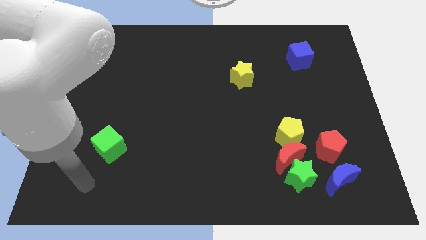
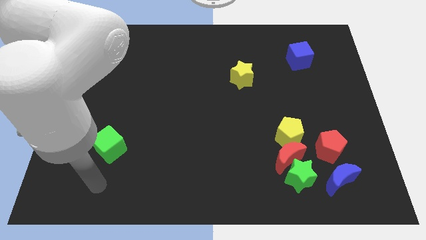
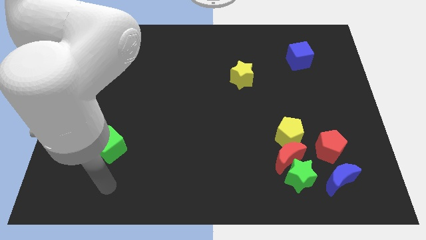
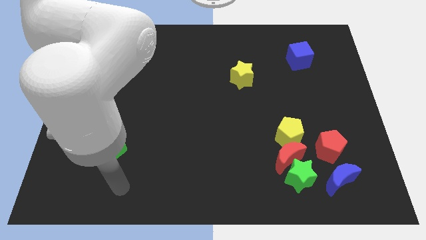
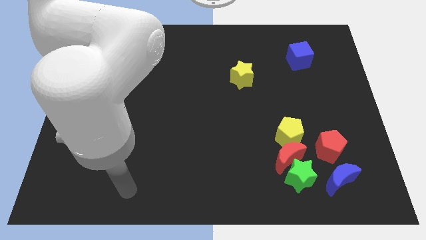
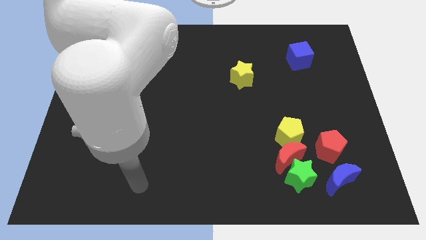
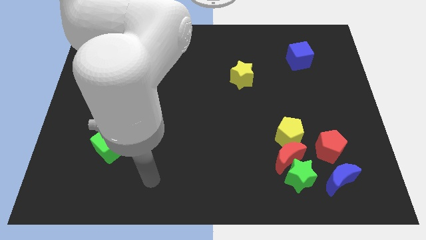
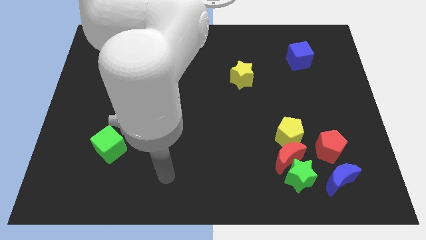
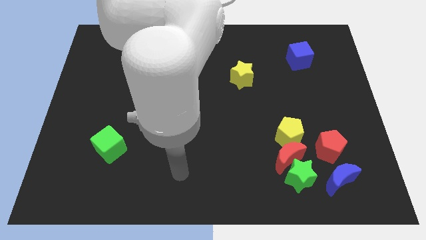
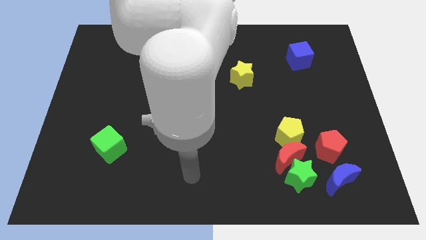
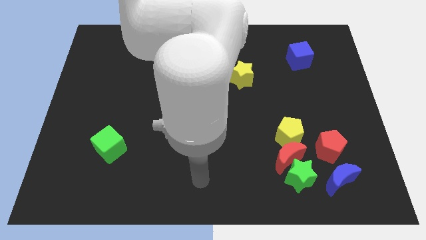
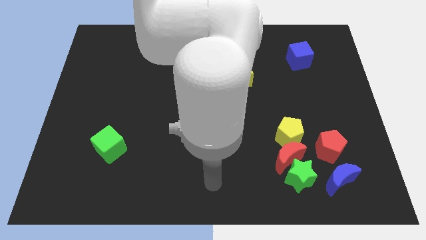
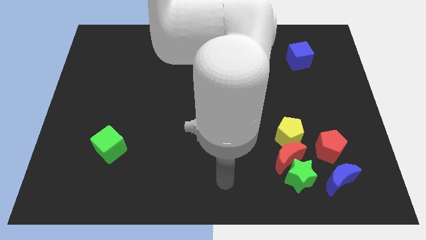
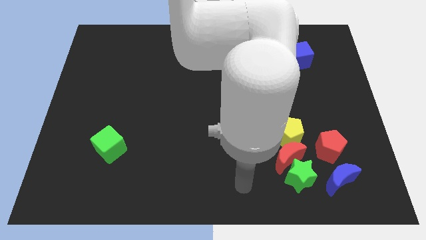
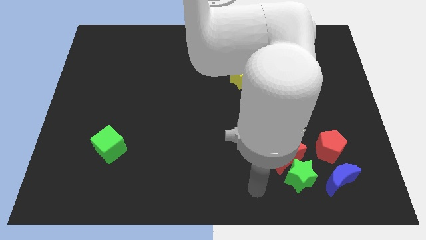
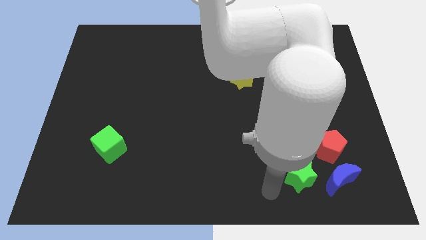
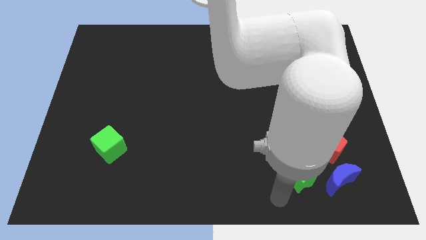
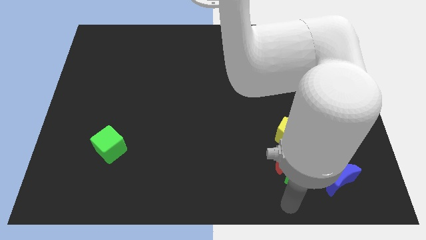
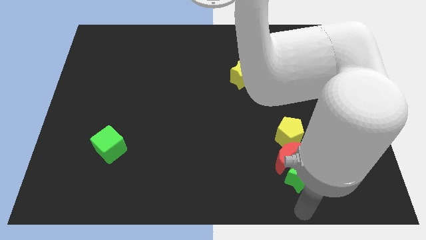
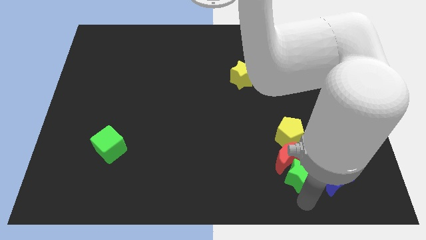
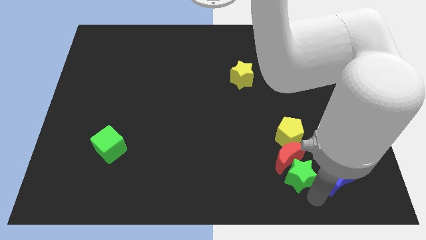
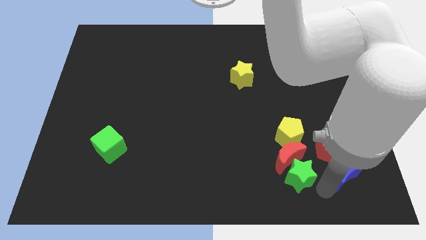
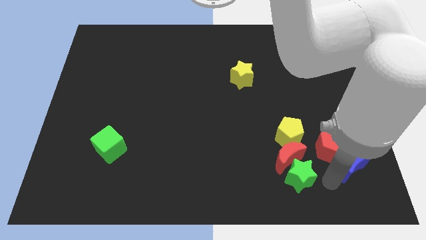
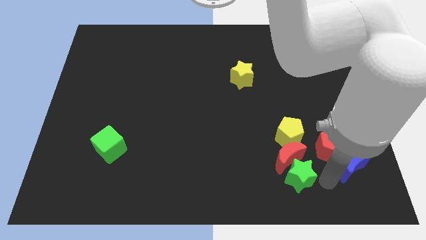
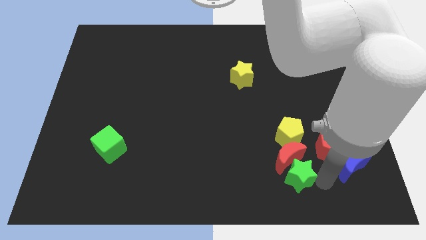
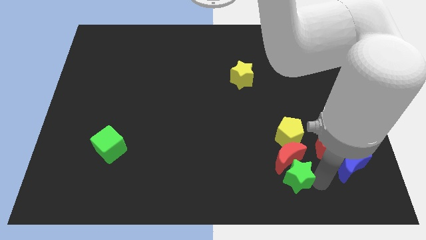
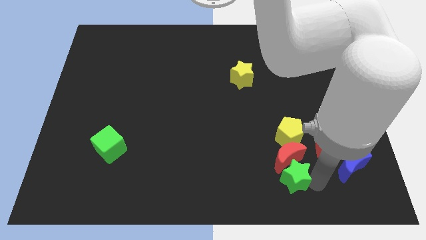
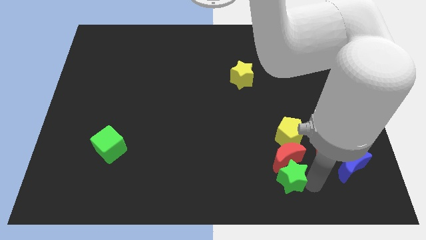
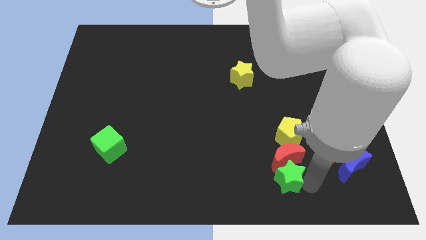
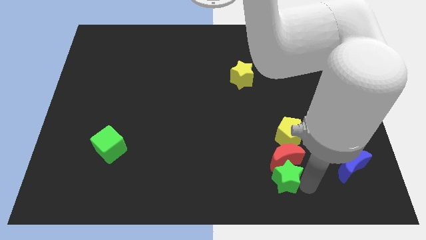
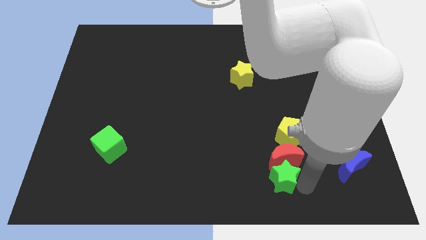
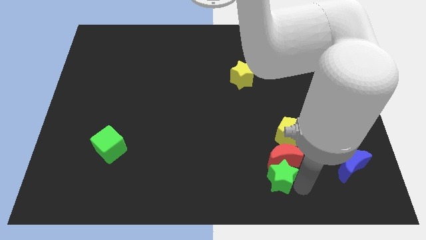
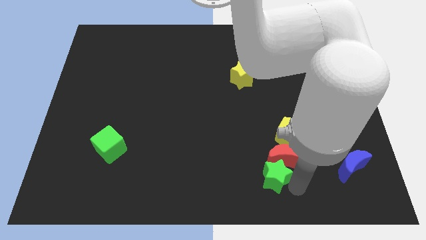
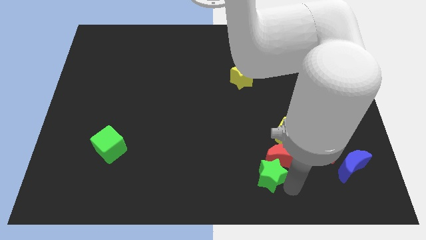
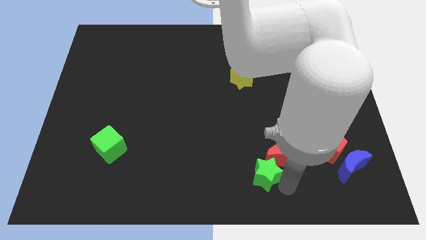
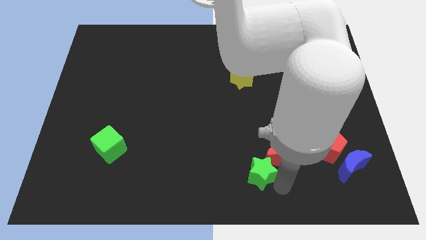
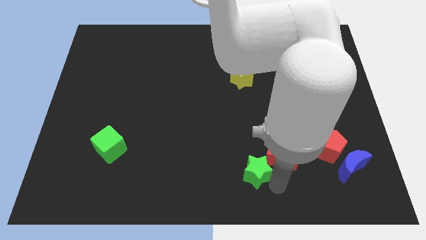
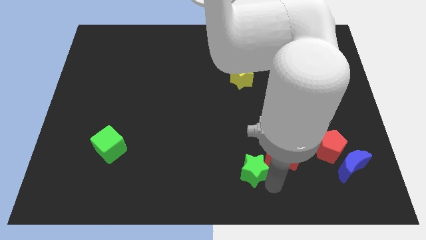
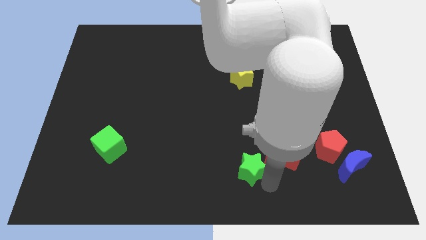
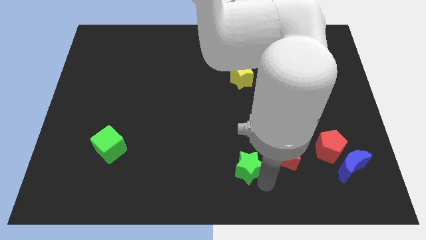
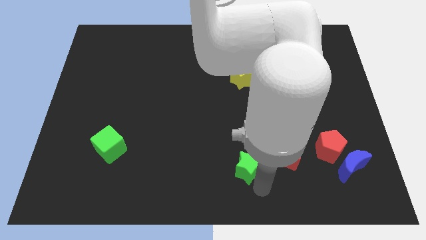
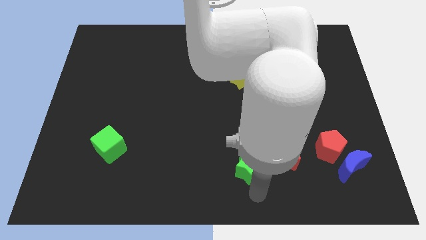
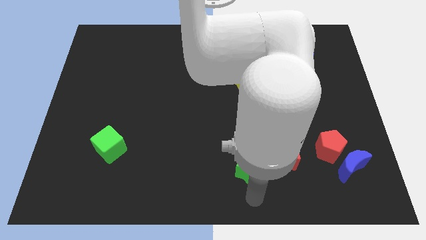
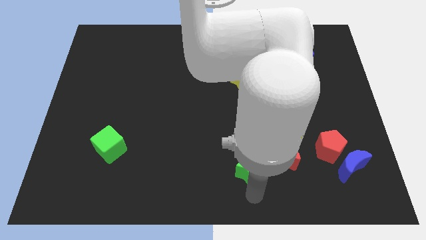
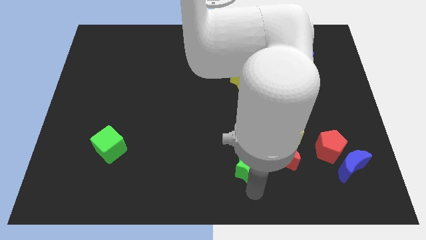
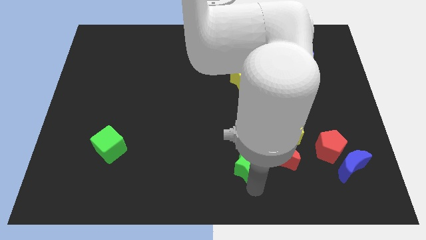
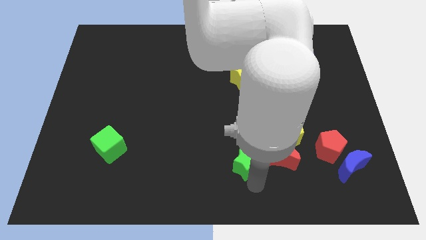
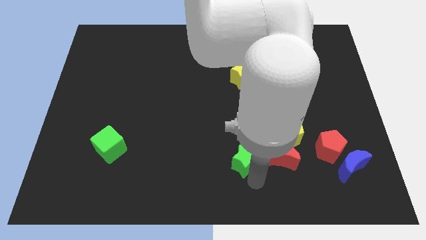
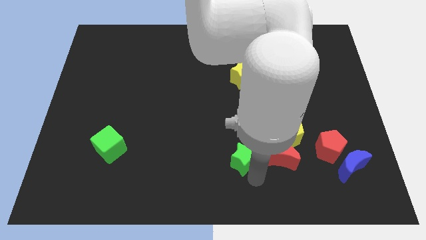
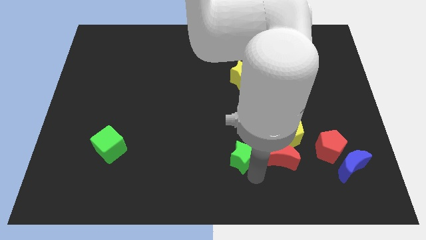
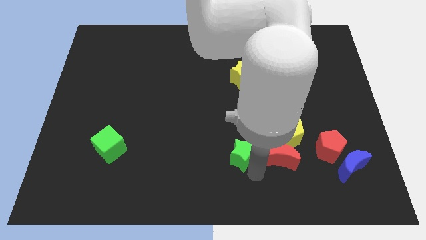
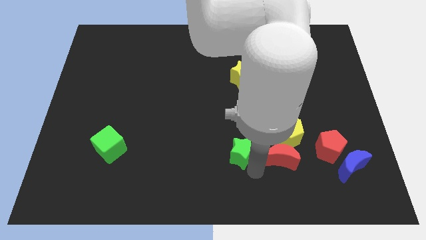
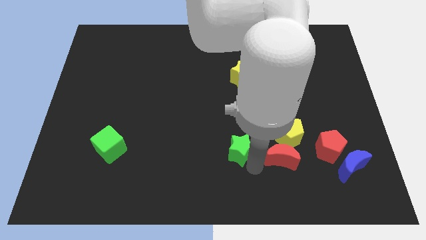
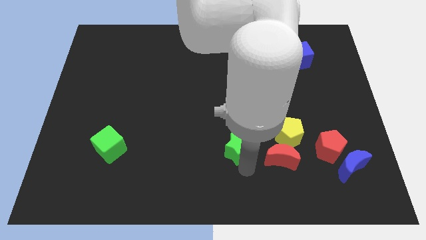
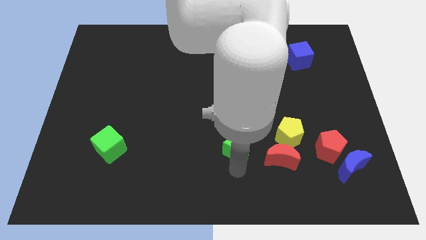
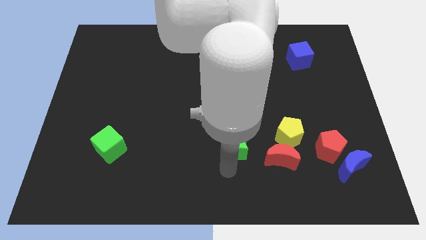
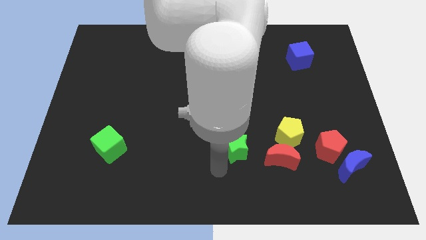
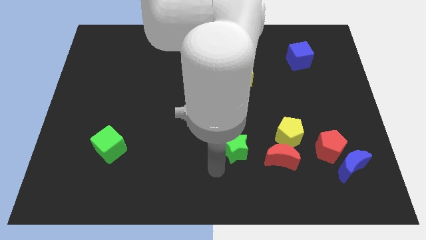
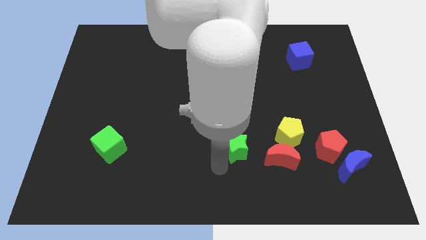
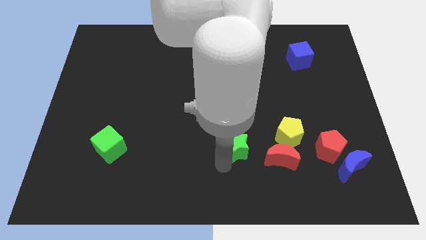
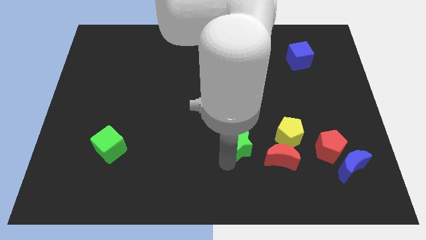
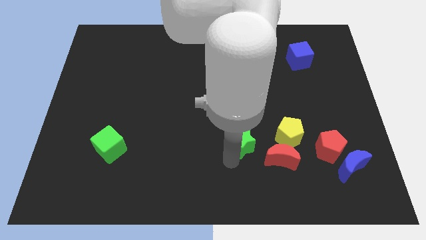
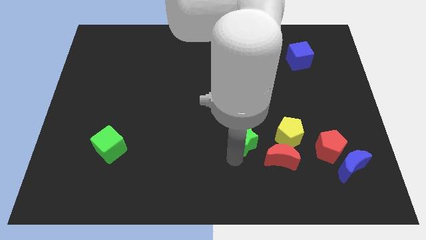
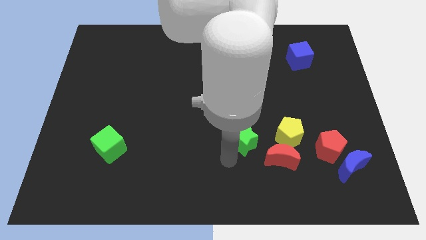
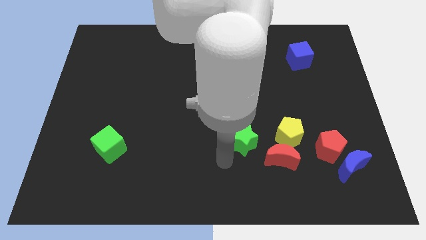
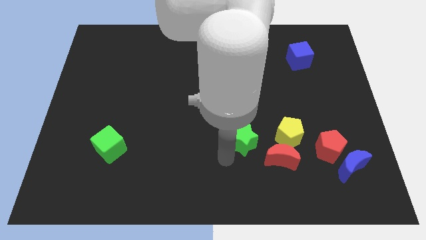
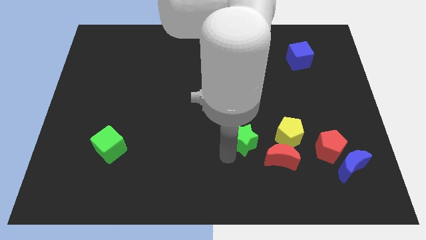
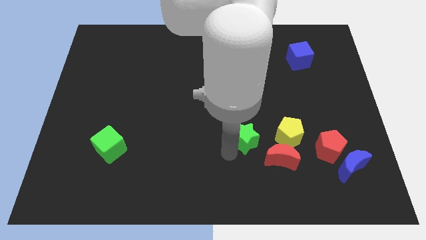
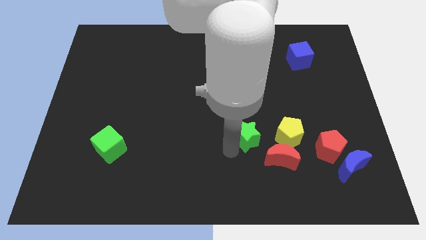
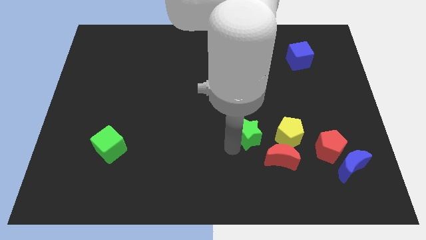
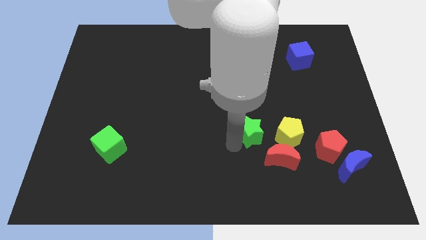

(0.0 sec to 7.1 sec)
push the green star up a little

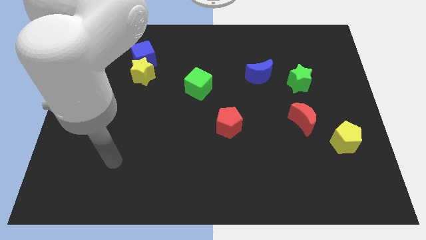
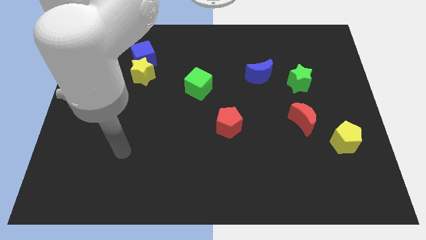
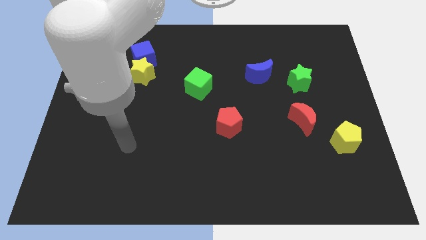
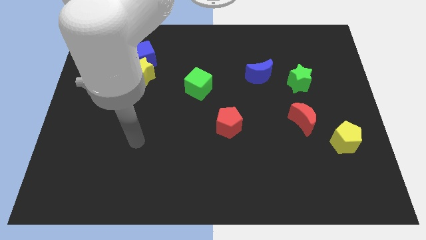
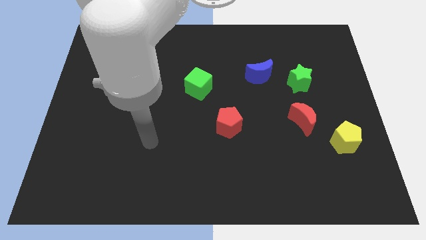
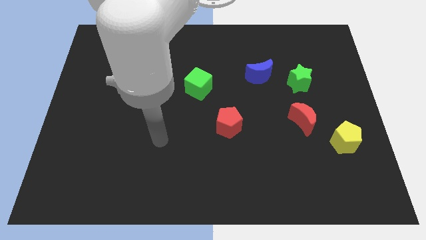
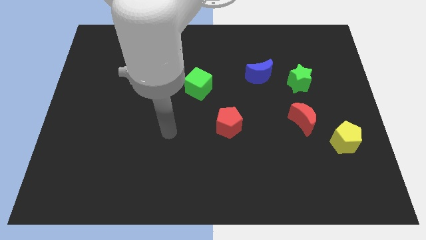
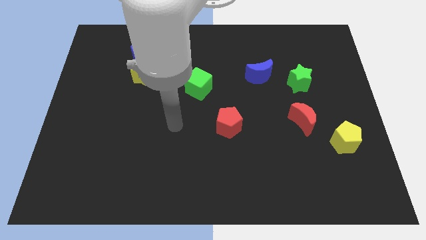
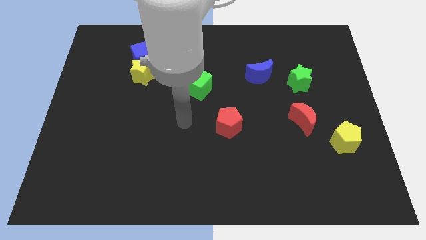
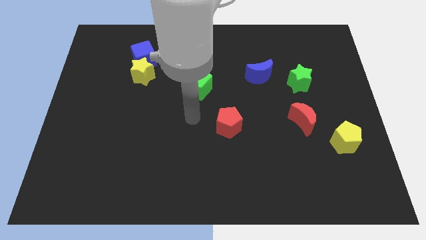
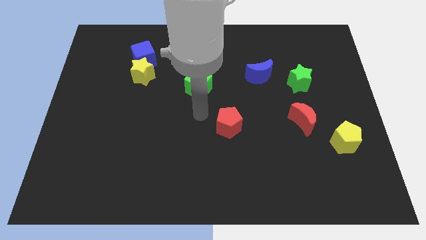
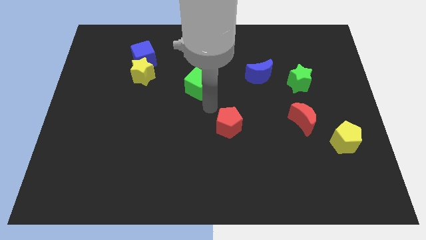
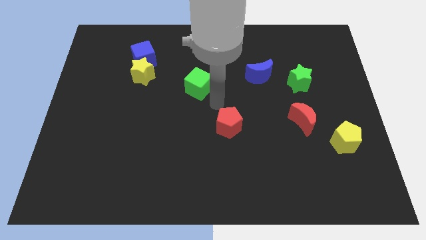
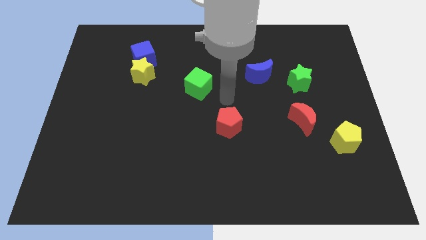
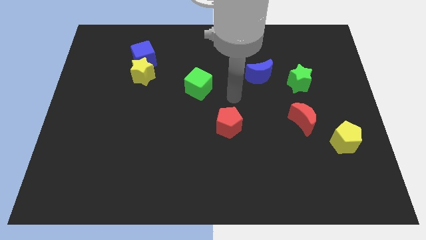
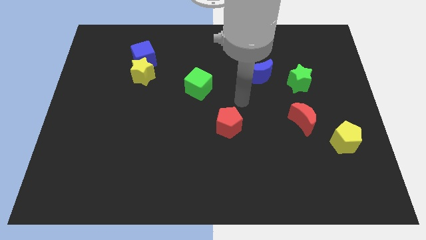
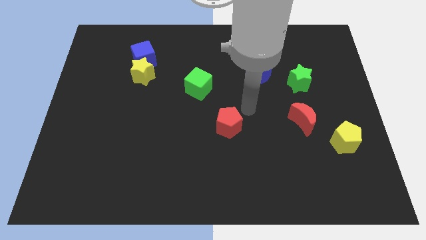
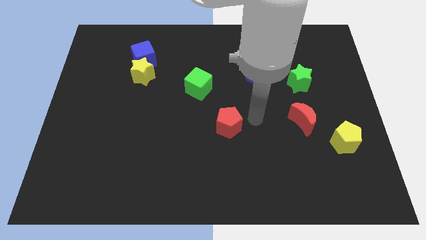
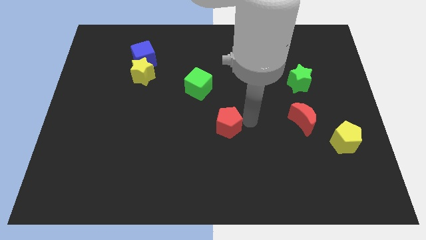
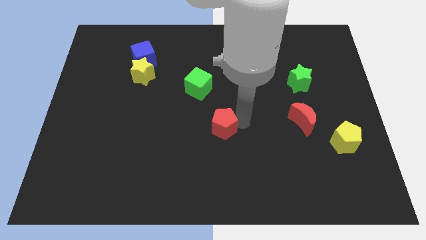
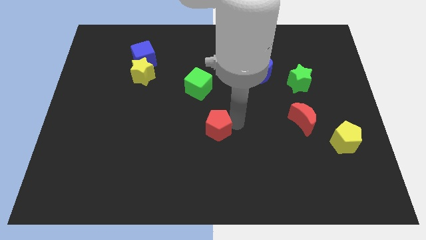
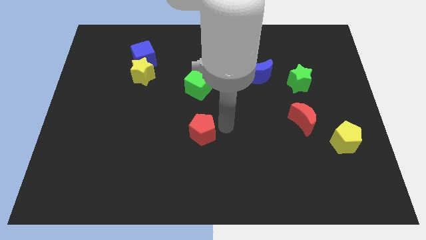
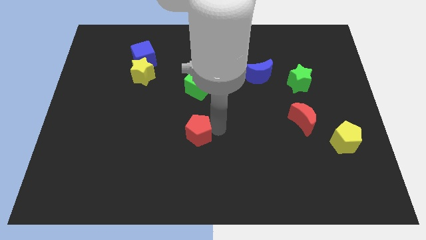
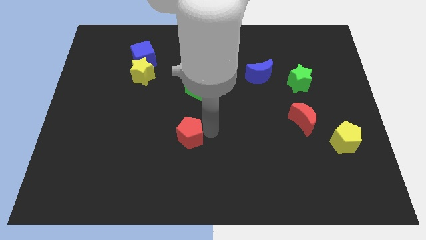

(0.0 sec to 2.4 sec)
slide the red pentagon to the left somewhat
